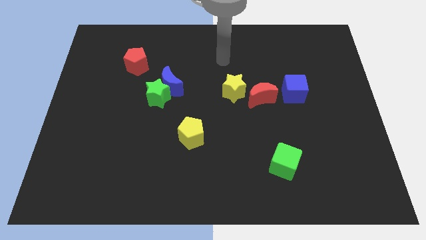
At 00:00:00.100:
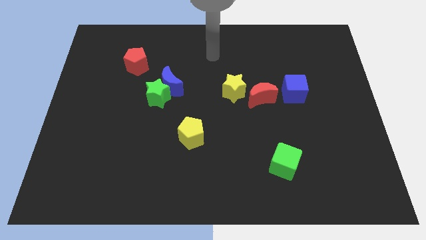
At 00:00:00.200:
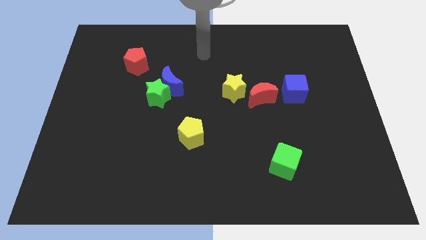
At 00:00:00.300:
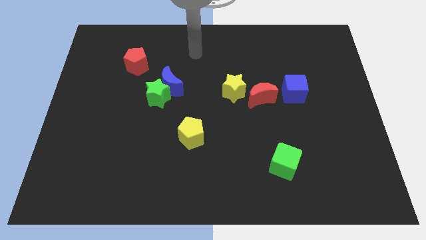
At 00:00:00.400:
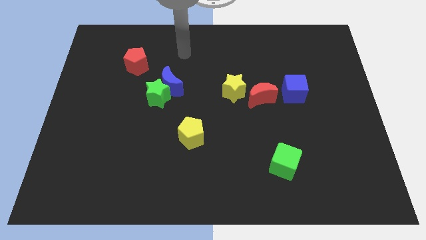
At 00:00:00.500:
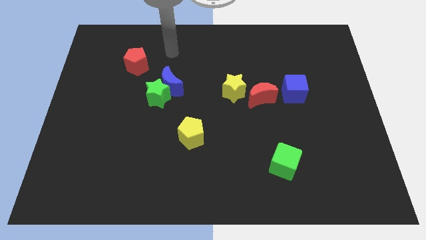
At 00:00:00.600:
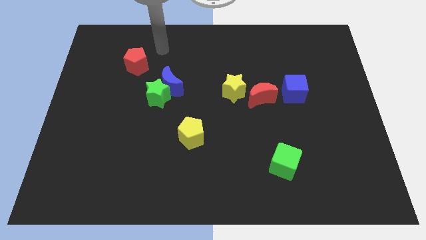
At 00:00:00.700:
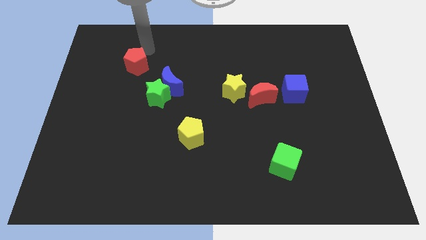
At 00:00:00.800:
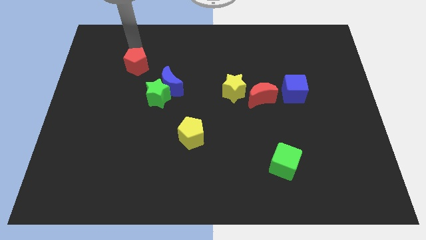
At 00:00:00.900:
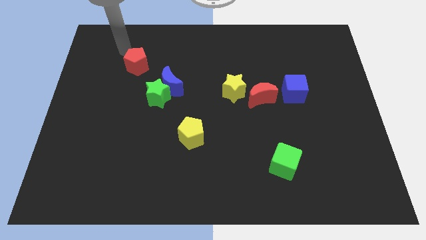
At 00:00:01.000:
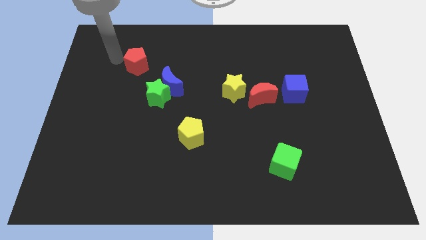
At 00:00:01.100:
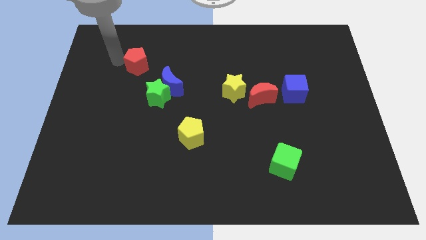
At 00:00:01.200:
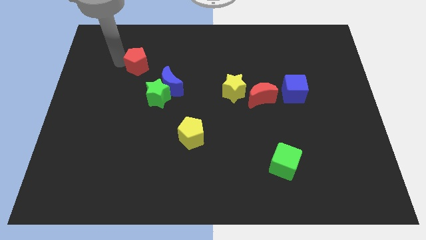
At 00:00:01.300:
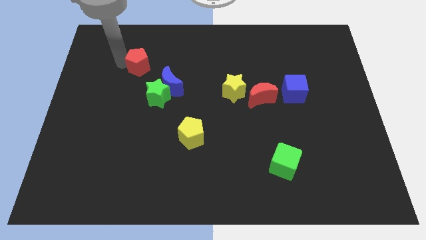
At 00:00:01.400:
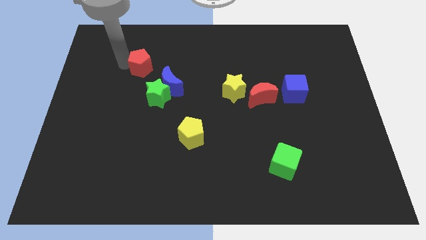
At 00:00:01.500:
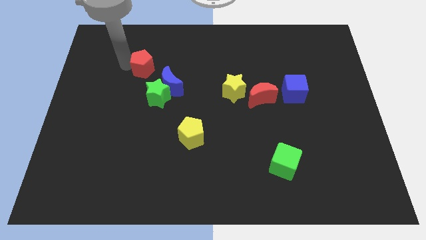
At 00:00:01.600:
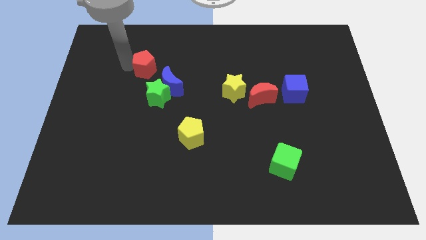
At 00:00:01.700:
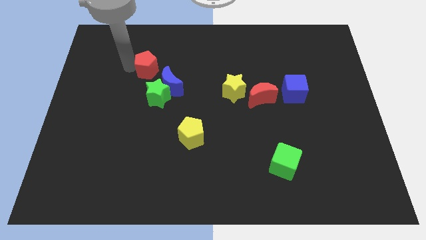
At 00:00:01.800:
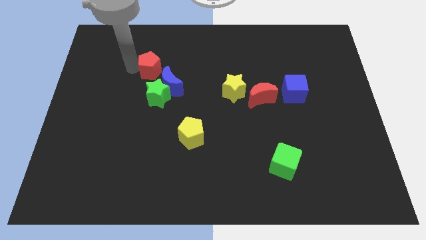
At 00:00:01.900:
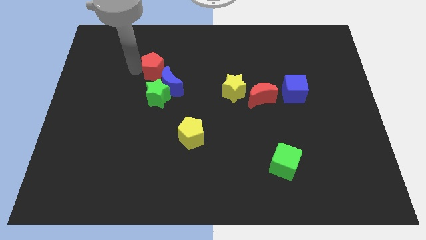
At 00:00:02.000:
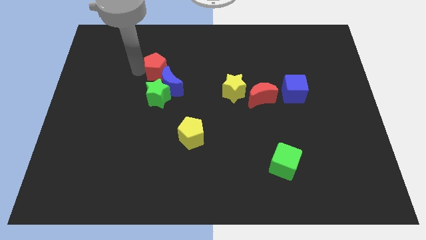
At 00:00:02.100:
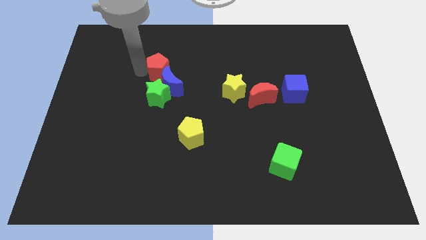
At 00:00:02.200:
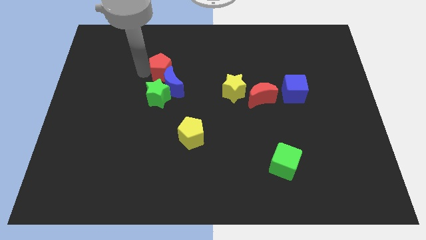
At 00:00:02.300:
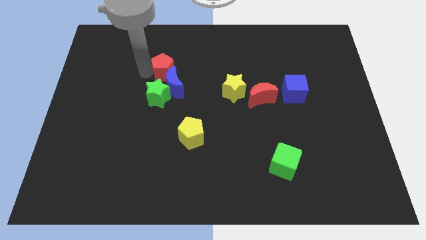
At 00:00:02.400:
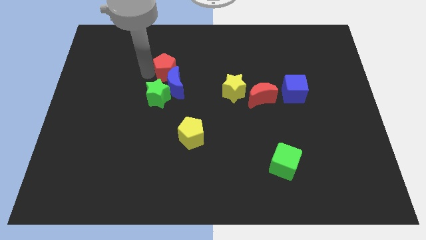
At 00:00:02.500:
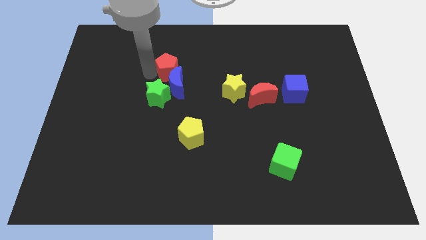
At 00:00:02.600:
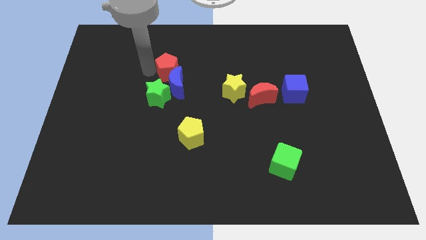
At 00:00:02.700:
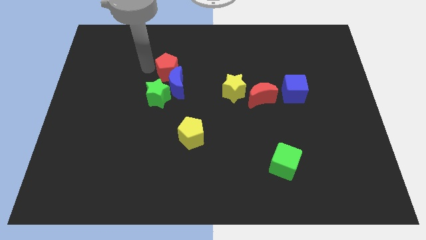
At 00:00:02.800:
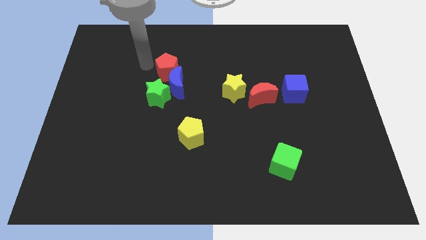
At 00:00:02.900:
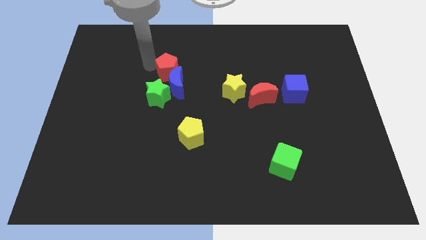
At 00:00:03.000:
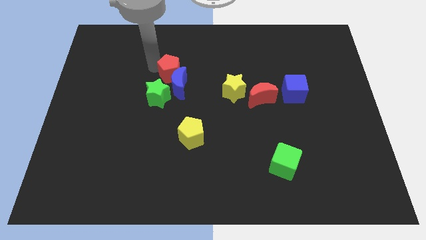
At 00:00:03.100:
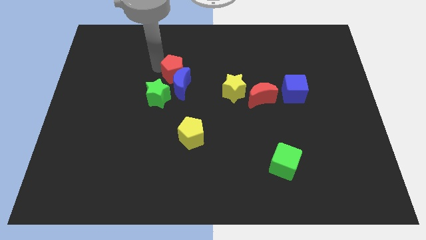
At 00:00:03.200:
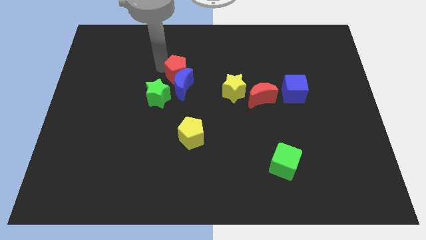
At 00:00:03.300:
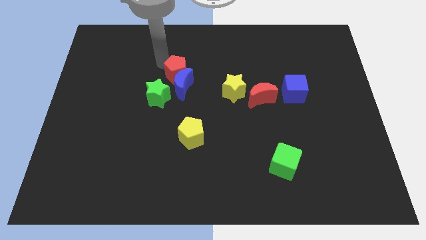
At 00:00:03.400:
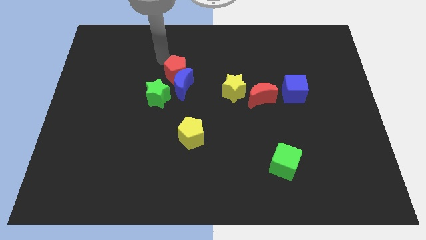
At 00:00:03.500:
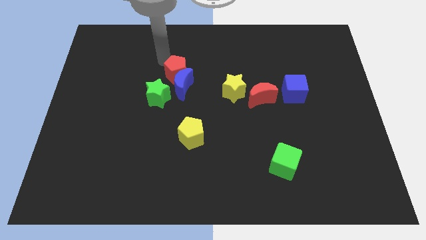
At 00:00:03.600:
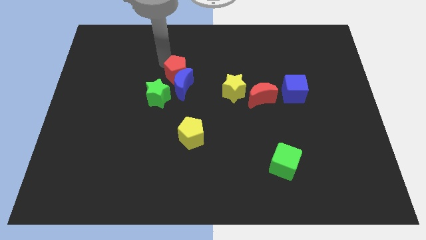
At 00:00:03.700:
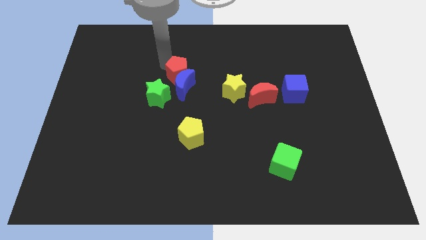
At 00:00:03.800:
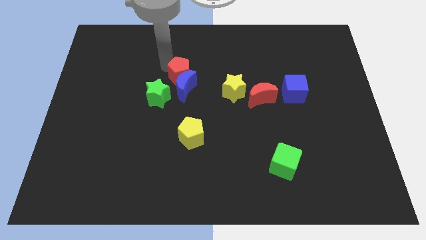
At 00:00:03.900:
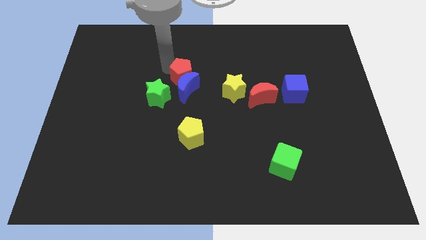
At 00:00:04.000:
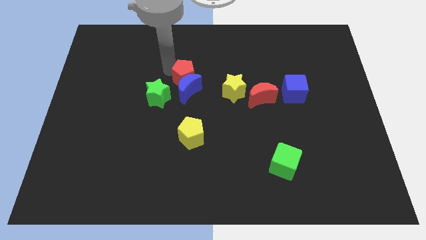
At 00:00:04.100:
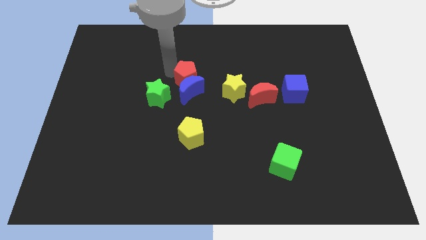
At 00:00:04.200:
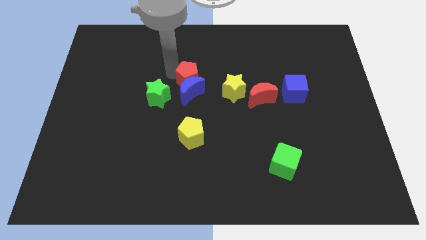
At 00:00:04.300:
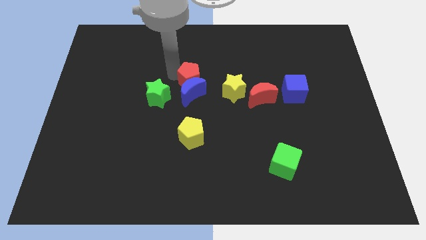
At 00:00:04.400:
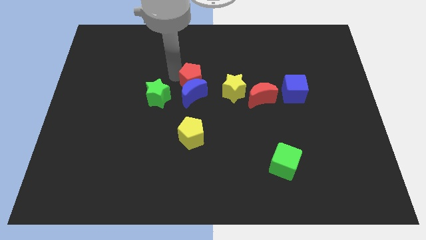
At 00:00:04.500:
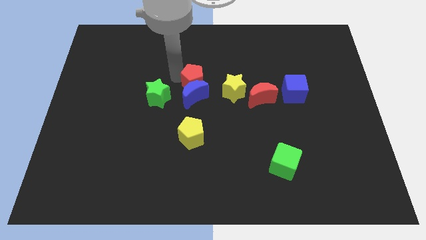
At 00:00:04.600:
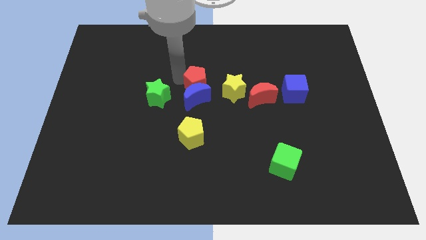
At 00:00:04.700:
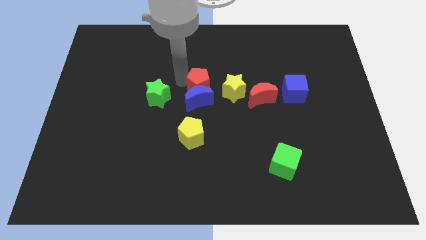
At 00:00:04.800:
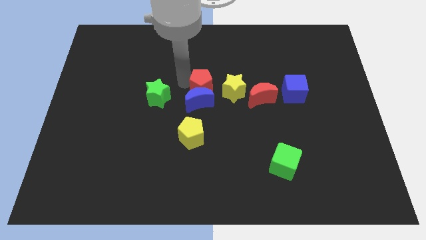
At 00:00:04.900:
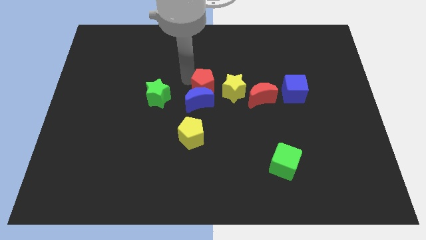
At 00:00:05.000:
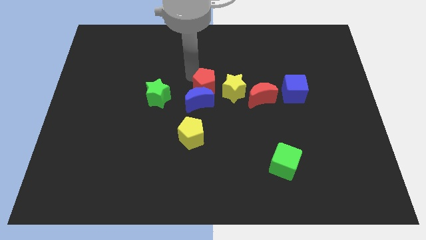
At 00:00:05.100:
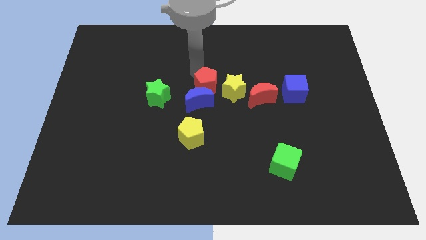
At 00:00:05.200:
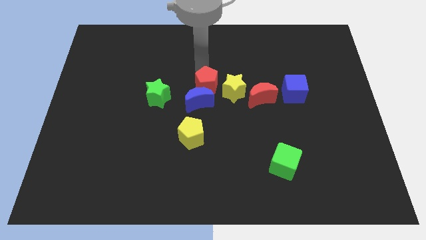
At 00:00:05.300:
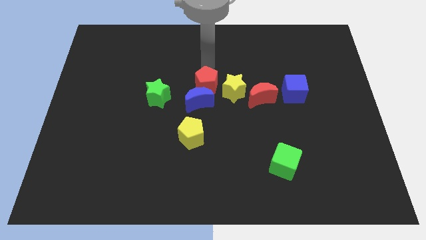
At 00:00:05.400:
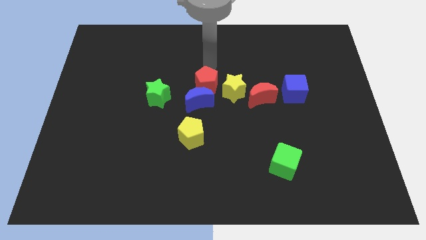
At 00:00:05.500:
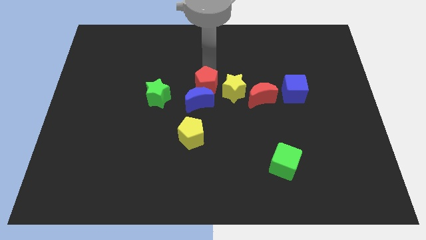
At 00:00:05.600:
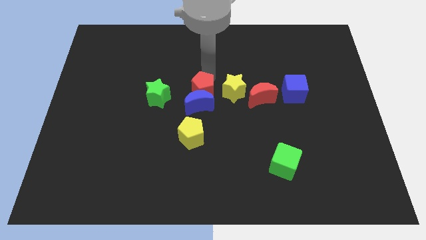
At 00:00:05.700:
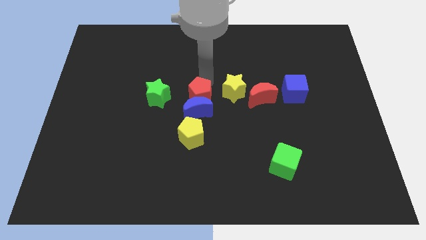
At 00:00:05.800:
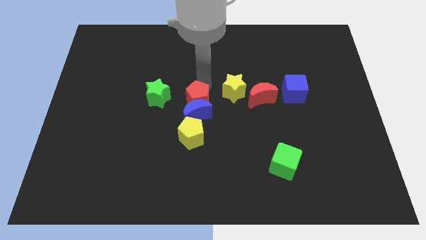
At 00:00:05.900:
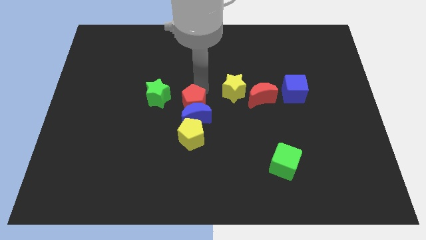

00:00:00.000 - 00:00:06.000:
move the red pentagon downwards and then to the right

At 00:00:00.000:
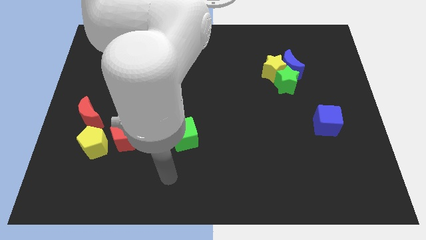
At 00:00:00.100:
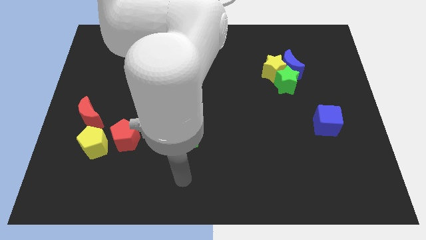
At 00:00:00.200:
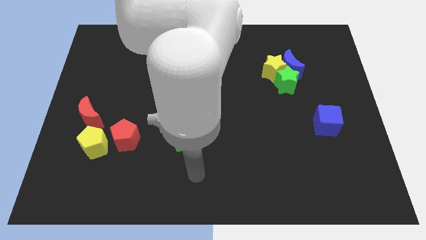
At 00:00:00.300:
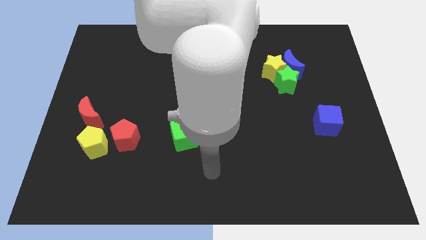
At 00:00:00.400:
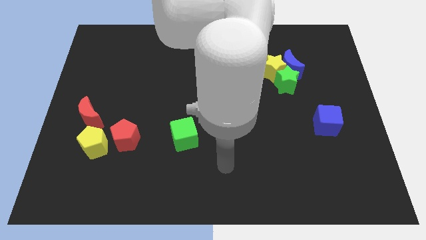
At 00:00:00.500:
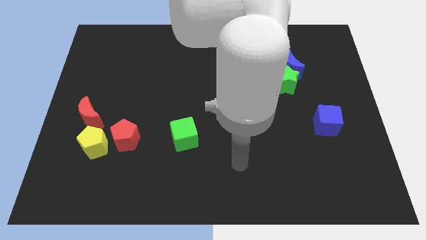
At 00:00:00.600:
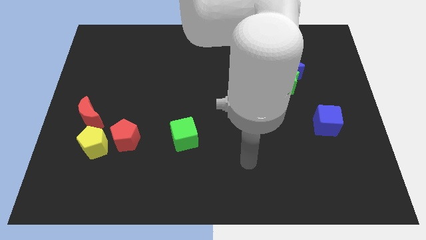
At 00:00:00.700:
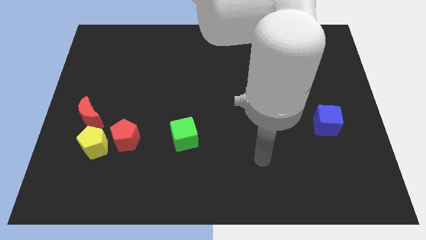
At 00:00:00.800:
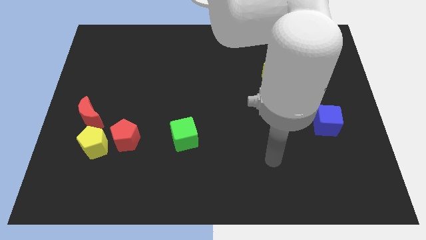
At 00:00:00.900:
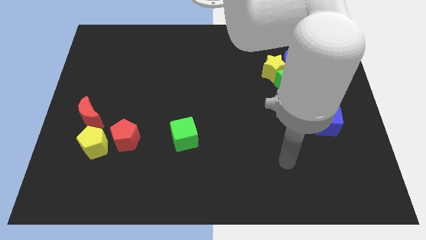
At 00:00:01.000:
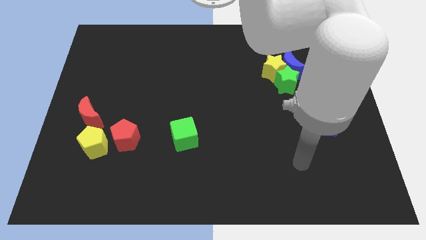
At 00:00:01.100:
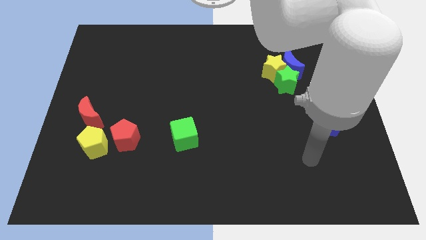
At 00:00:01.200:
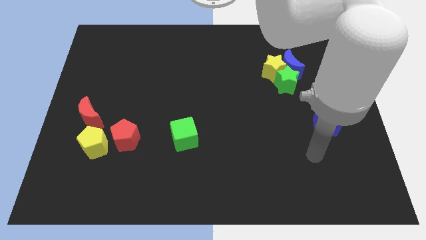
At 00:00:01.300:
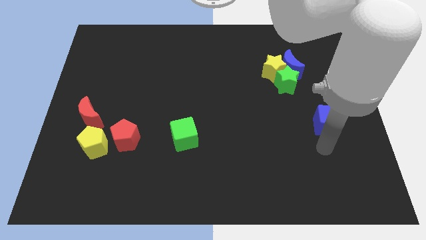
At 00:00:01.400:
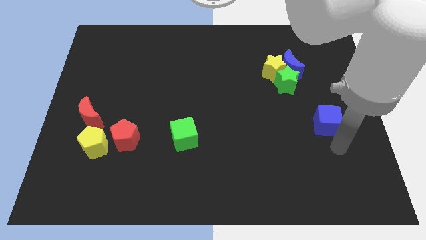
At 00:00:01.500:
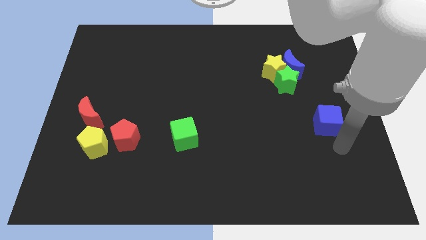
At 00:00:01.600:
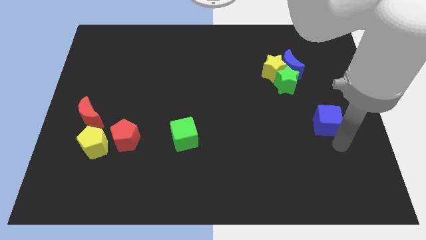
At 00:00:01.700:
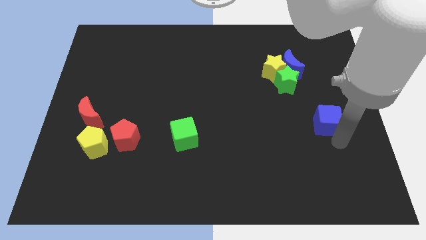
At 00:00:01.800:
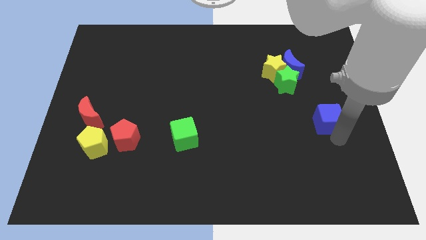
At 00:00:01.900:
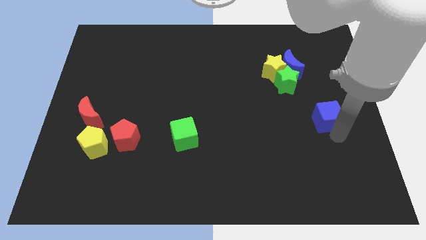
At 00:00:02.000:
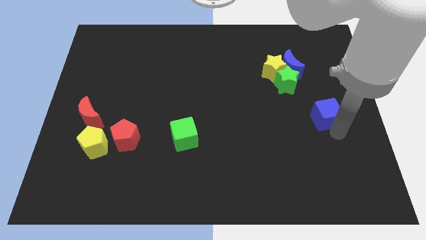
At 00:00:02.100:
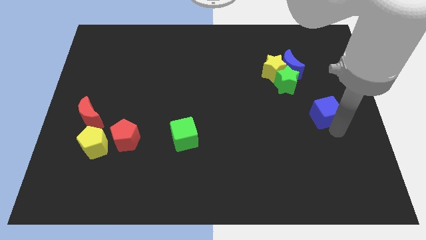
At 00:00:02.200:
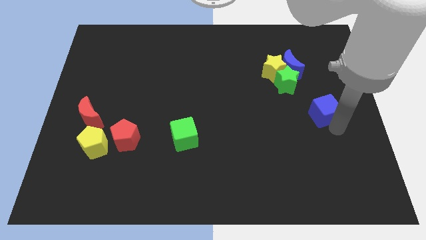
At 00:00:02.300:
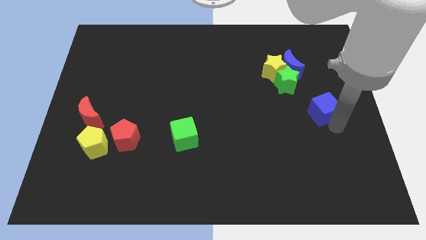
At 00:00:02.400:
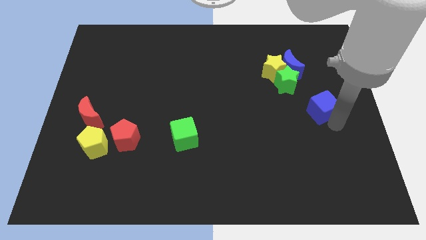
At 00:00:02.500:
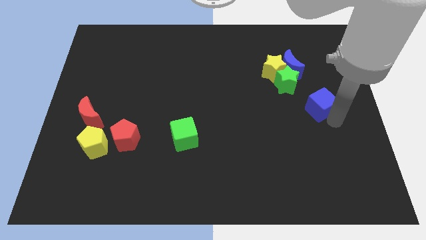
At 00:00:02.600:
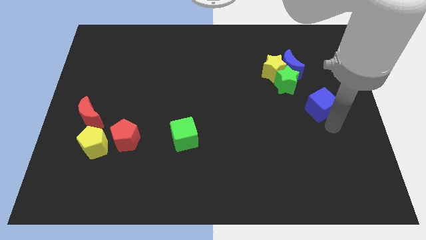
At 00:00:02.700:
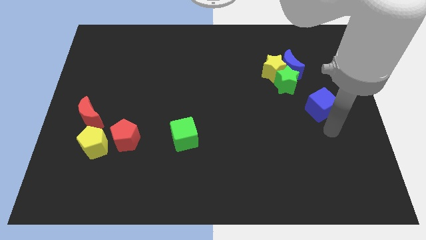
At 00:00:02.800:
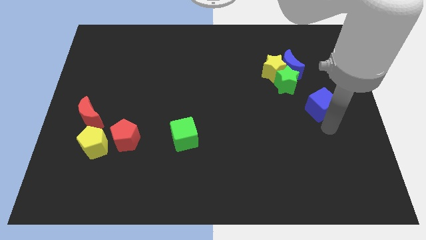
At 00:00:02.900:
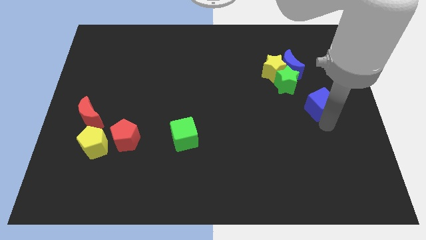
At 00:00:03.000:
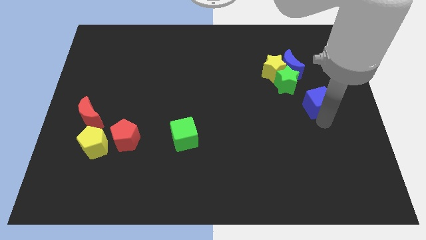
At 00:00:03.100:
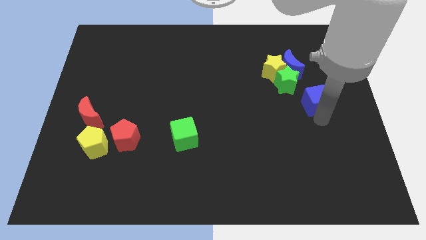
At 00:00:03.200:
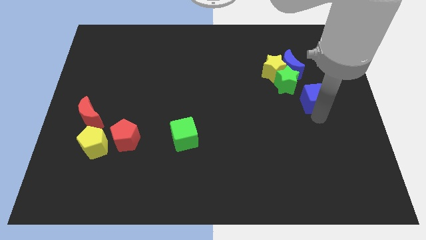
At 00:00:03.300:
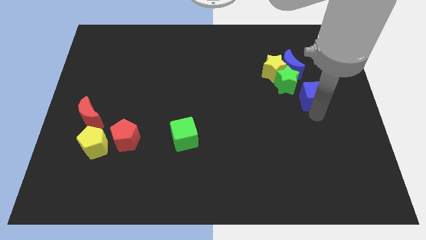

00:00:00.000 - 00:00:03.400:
slide the blue cube upwards a bit
